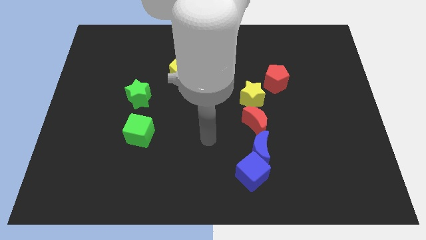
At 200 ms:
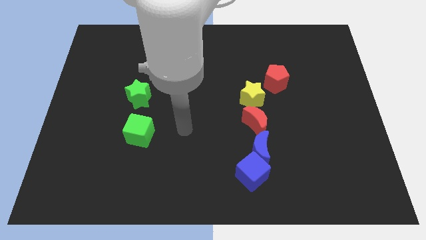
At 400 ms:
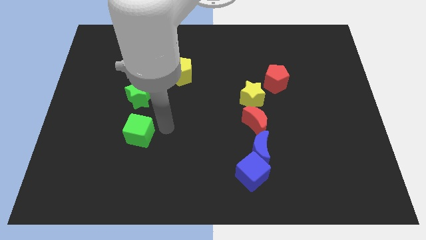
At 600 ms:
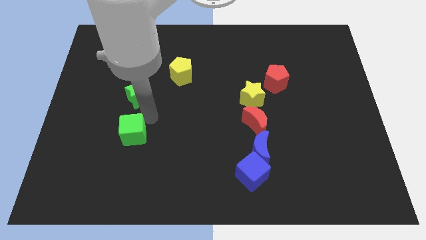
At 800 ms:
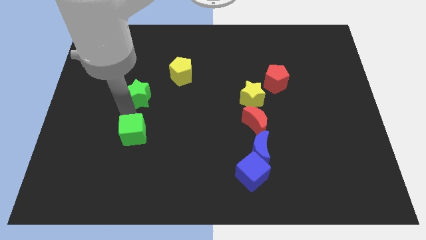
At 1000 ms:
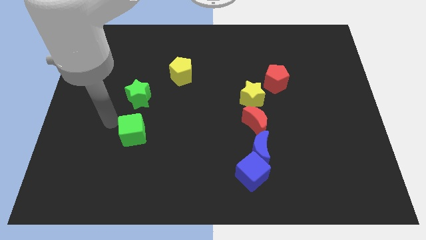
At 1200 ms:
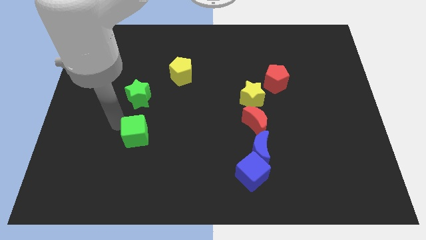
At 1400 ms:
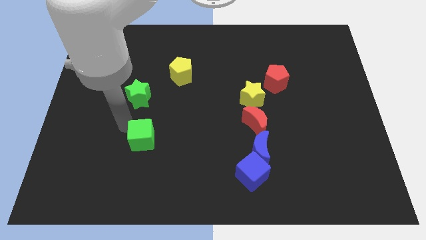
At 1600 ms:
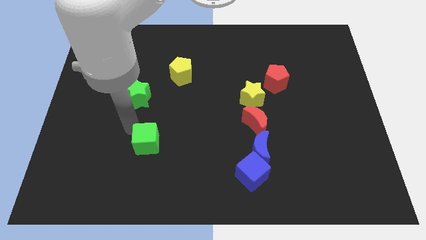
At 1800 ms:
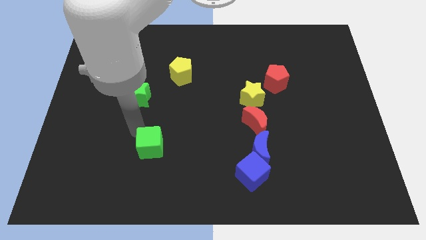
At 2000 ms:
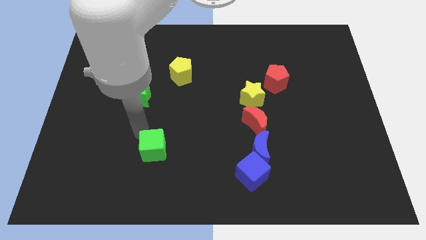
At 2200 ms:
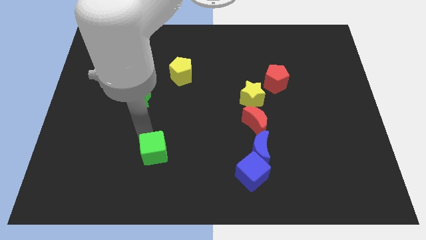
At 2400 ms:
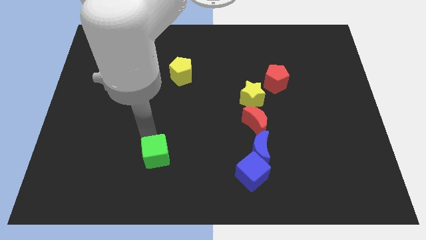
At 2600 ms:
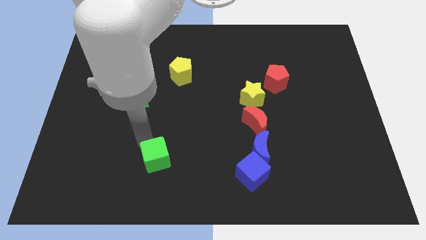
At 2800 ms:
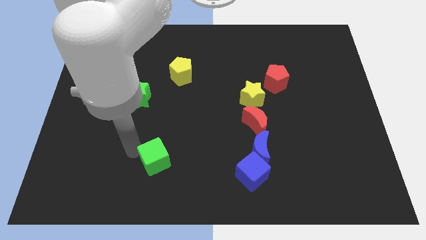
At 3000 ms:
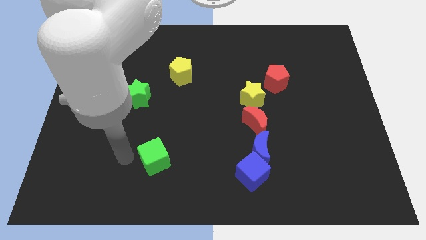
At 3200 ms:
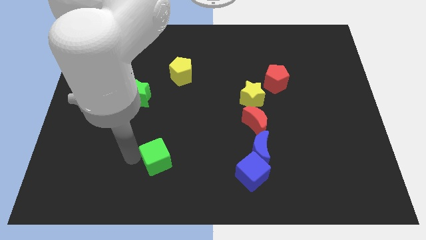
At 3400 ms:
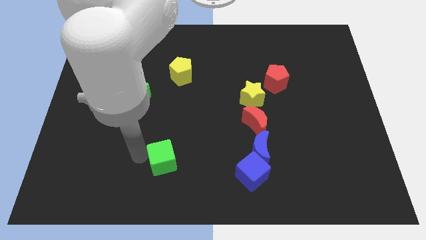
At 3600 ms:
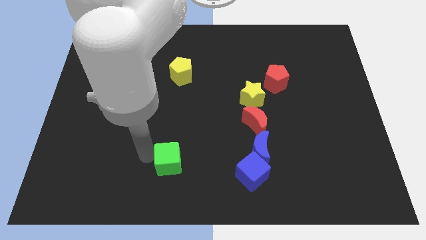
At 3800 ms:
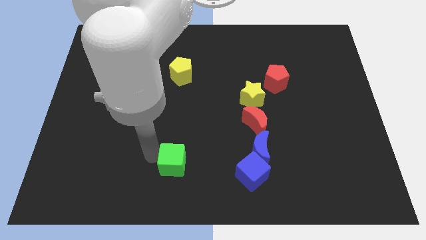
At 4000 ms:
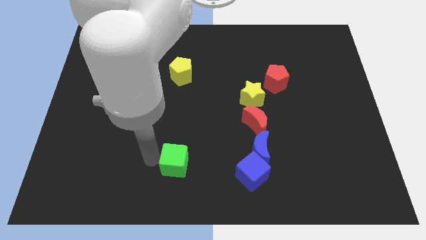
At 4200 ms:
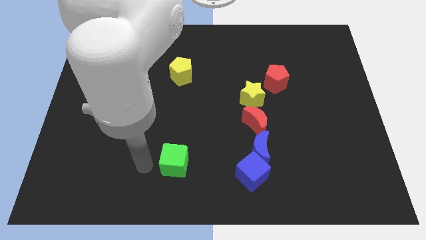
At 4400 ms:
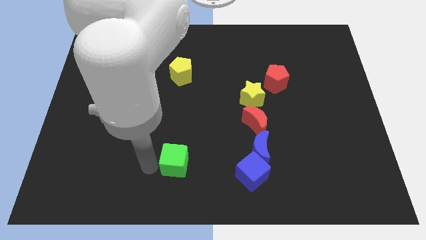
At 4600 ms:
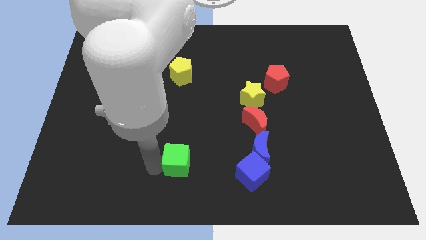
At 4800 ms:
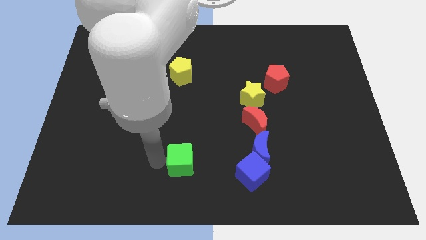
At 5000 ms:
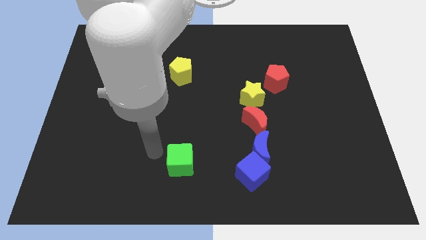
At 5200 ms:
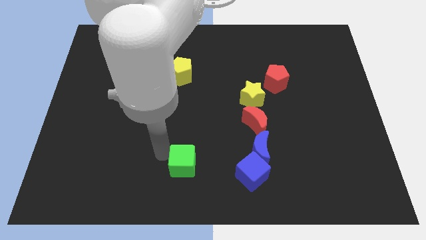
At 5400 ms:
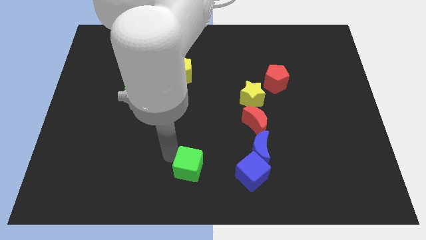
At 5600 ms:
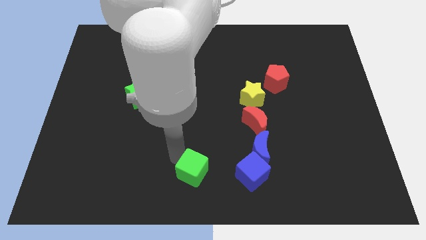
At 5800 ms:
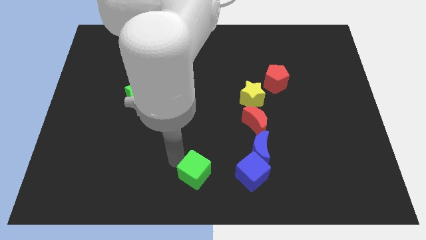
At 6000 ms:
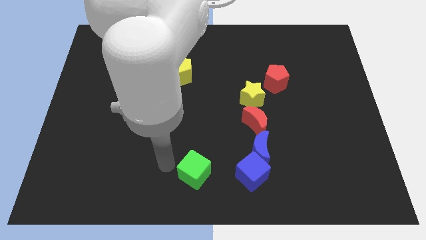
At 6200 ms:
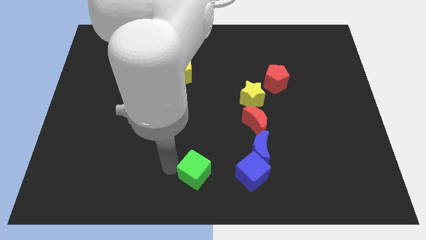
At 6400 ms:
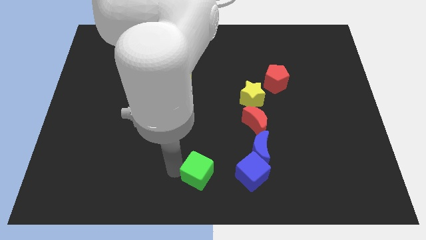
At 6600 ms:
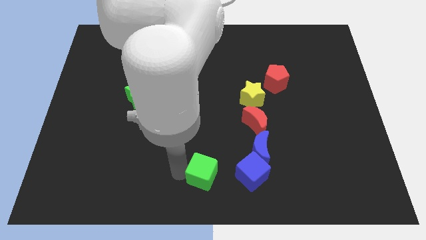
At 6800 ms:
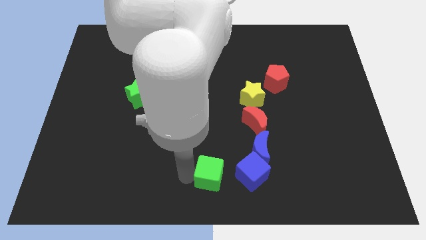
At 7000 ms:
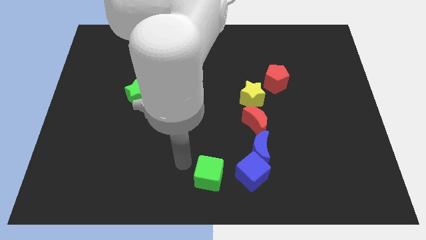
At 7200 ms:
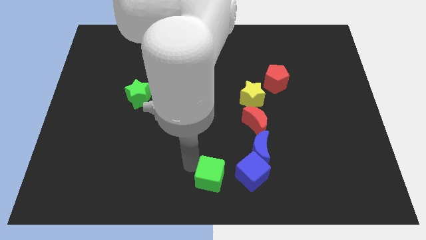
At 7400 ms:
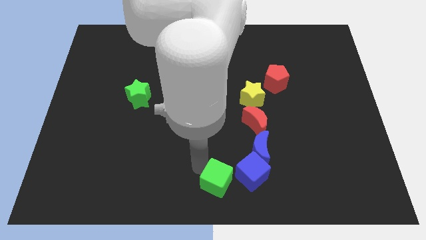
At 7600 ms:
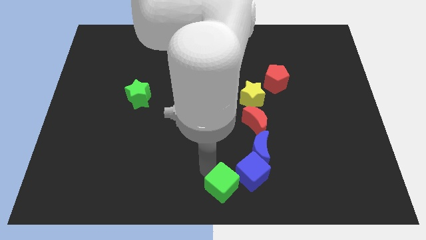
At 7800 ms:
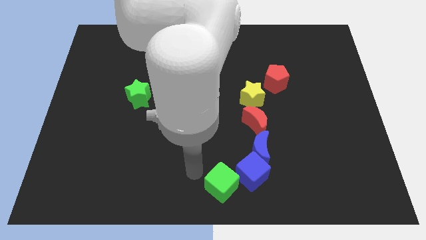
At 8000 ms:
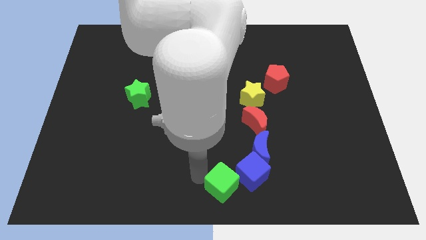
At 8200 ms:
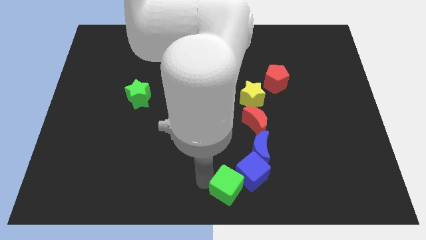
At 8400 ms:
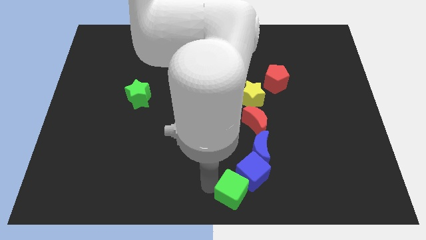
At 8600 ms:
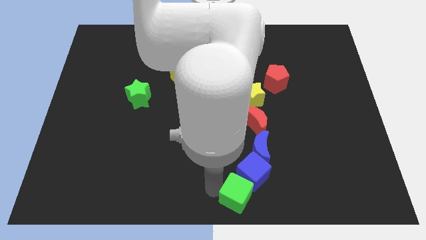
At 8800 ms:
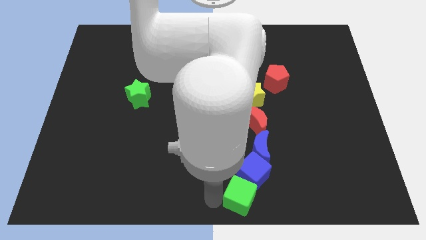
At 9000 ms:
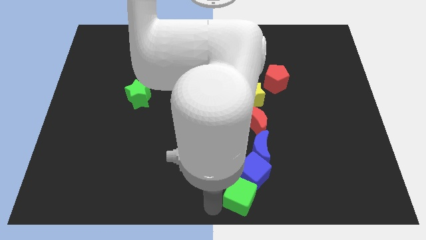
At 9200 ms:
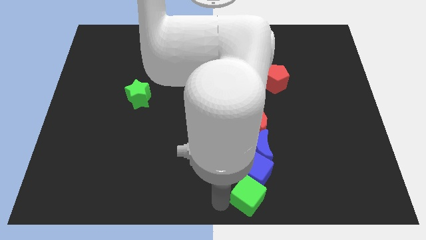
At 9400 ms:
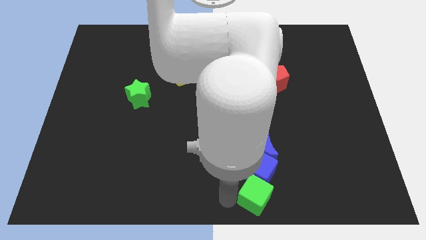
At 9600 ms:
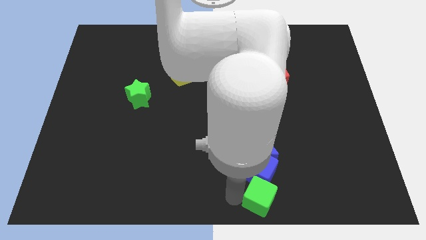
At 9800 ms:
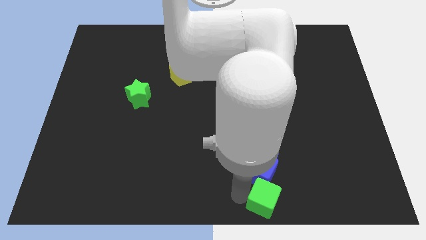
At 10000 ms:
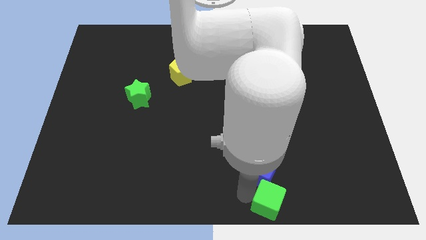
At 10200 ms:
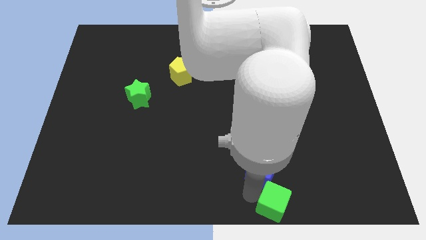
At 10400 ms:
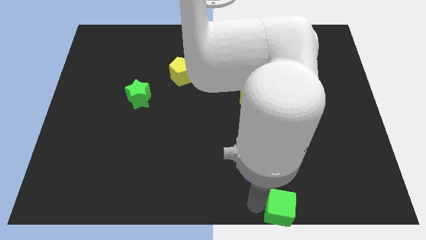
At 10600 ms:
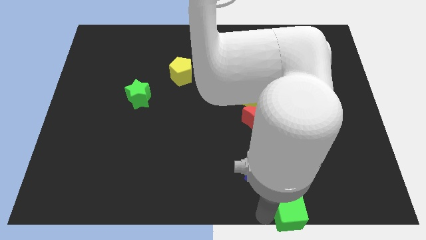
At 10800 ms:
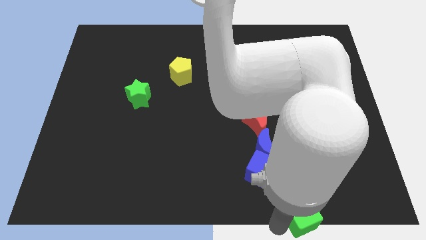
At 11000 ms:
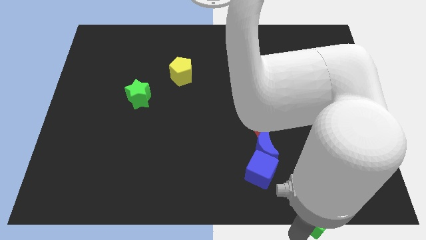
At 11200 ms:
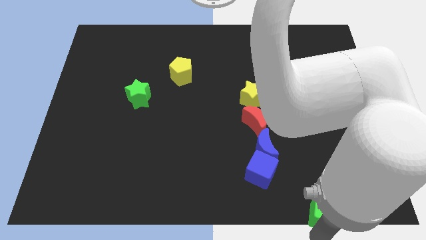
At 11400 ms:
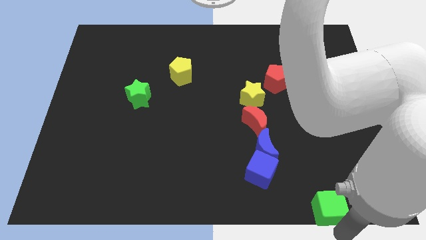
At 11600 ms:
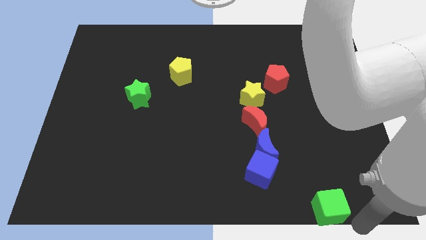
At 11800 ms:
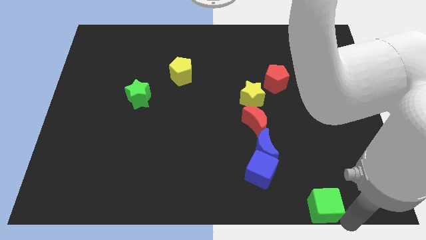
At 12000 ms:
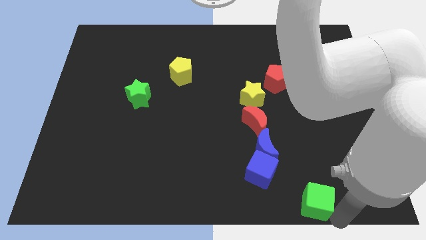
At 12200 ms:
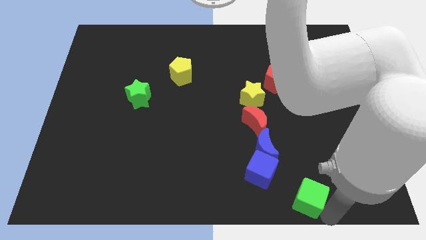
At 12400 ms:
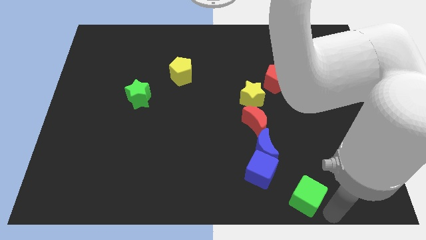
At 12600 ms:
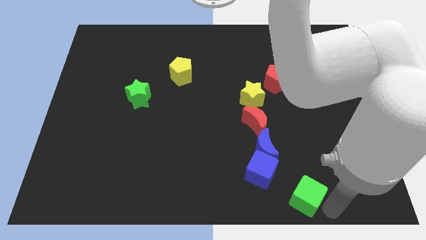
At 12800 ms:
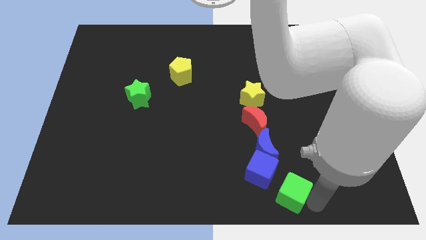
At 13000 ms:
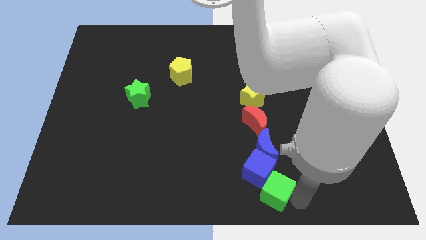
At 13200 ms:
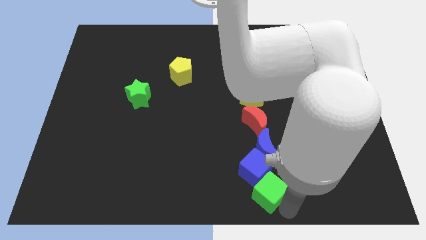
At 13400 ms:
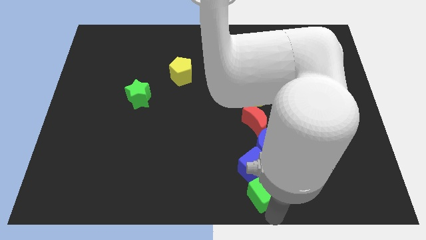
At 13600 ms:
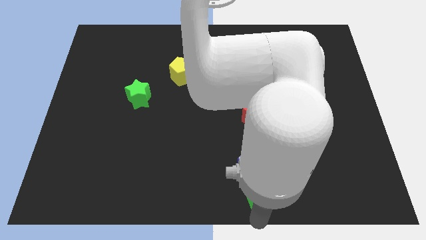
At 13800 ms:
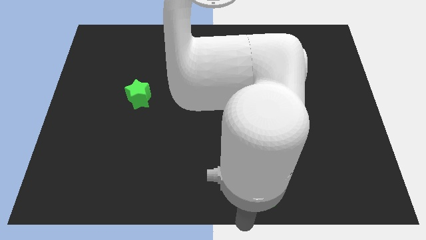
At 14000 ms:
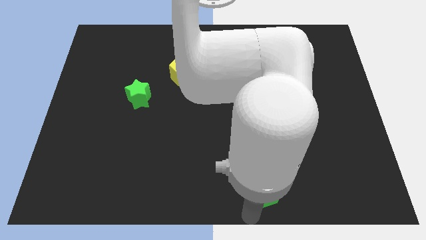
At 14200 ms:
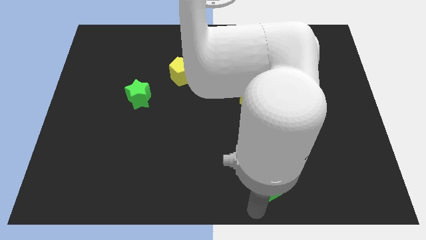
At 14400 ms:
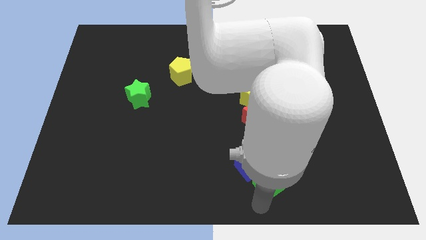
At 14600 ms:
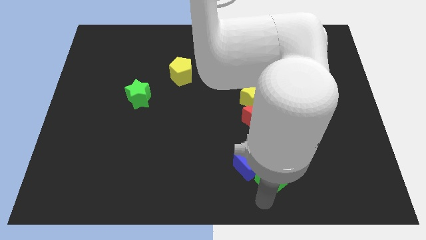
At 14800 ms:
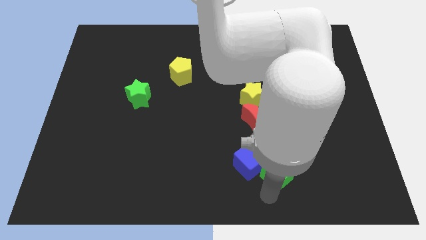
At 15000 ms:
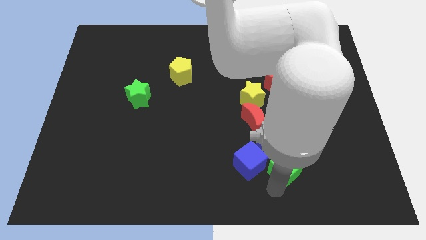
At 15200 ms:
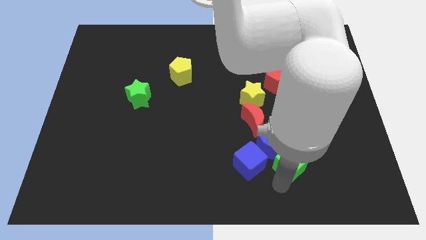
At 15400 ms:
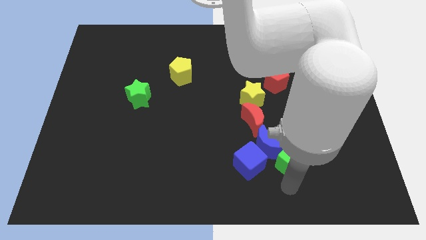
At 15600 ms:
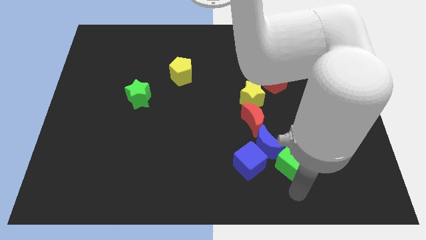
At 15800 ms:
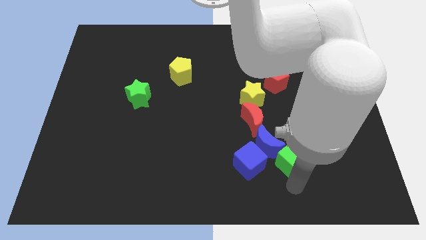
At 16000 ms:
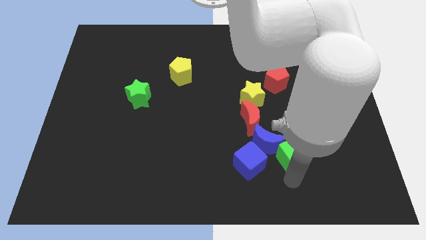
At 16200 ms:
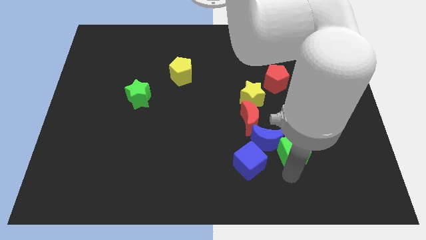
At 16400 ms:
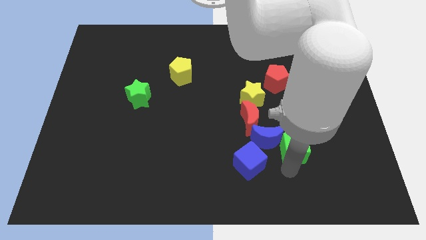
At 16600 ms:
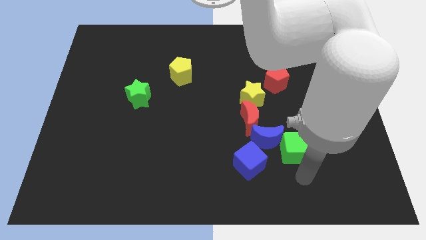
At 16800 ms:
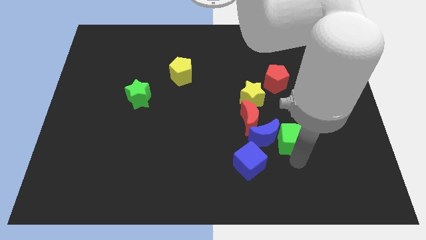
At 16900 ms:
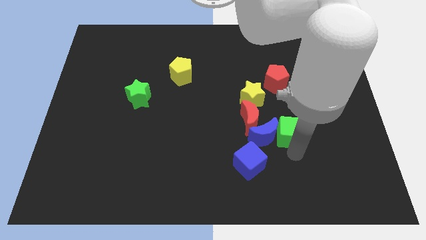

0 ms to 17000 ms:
put the green cube to the bottom of the red pentagon
